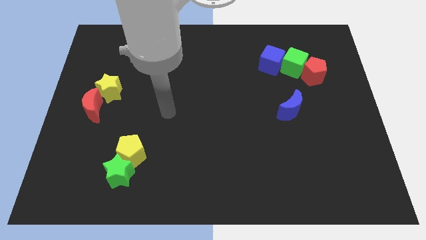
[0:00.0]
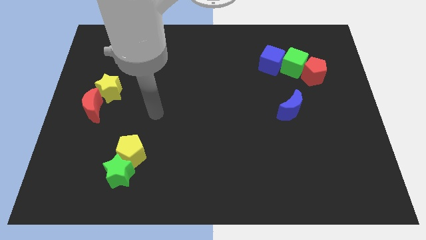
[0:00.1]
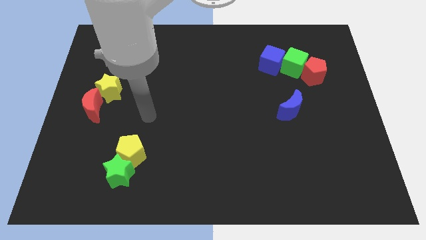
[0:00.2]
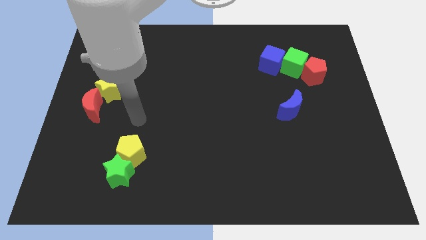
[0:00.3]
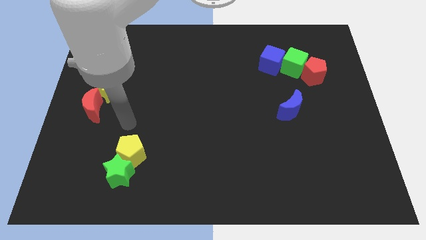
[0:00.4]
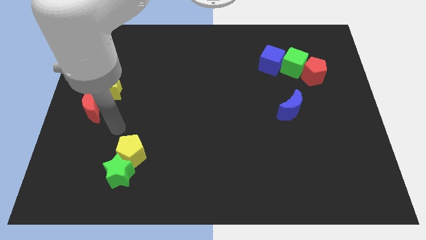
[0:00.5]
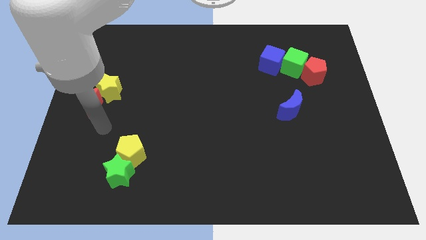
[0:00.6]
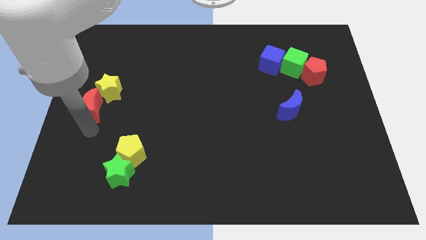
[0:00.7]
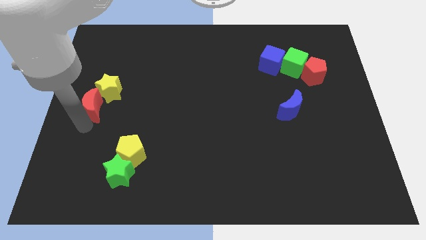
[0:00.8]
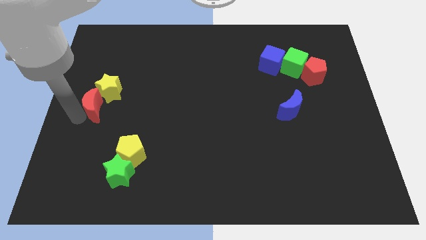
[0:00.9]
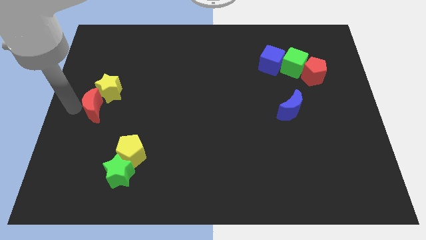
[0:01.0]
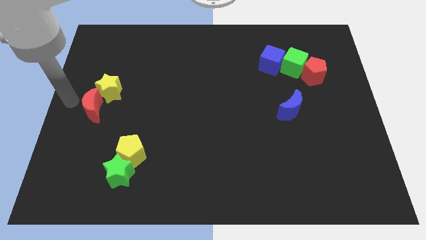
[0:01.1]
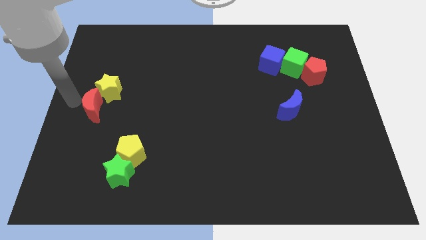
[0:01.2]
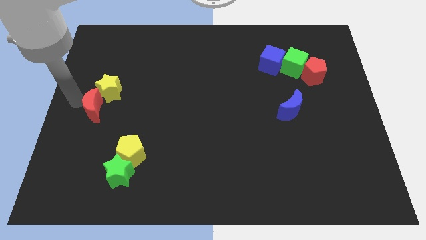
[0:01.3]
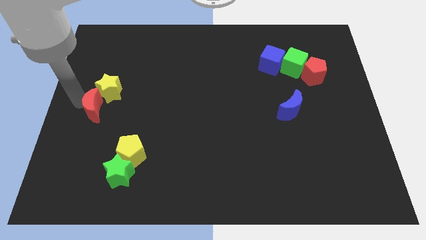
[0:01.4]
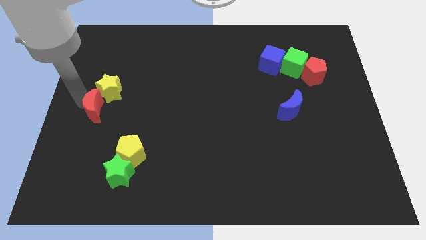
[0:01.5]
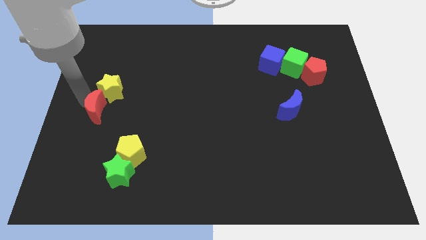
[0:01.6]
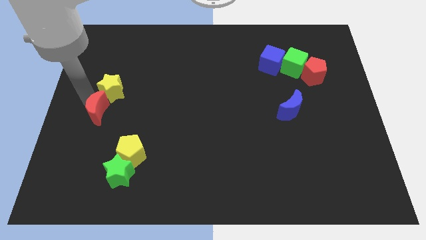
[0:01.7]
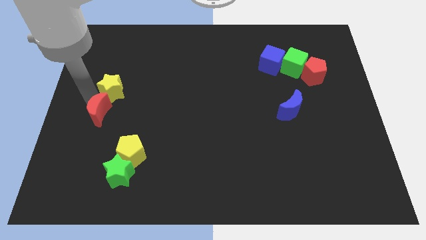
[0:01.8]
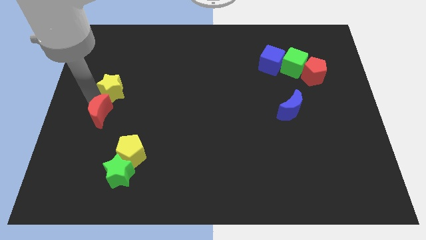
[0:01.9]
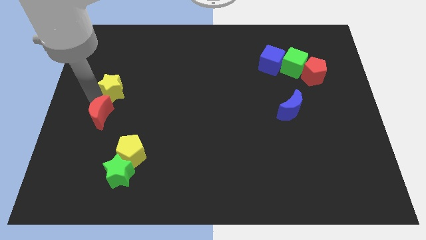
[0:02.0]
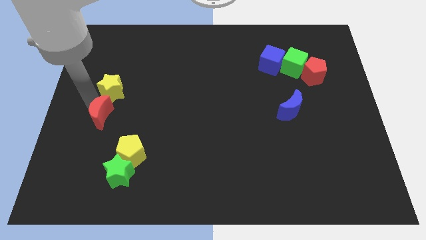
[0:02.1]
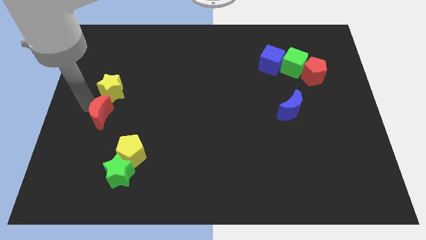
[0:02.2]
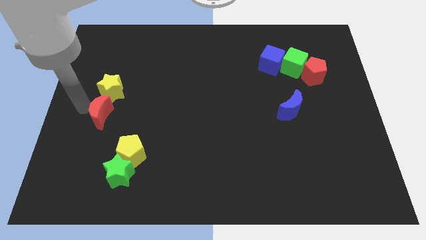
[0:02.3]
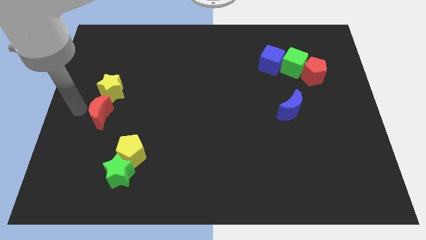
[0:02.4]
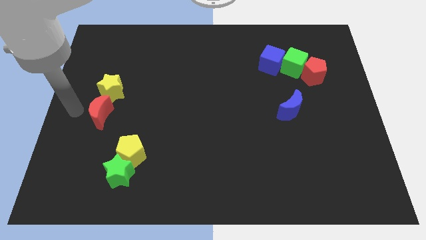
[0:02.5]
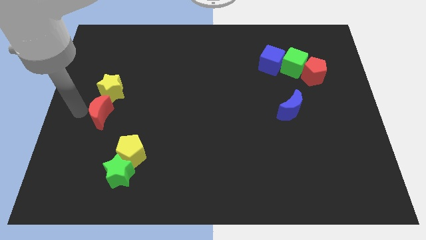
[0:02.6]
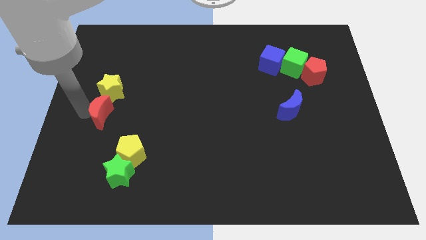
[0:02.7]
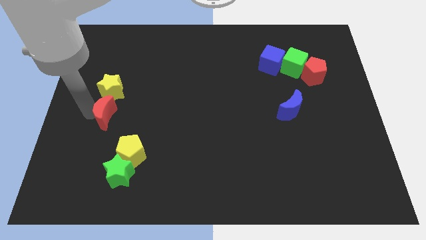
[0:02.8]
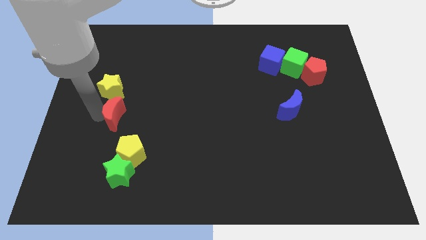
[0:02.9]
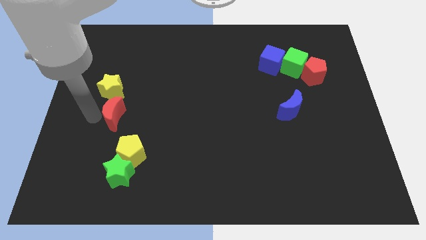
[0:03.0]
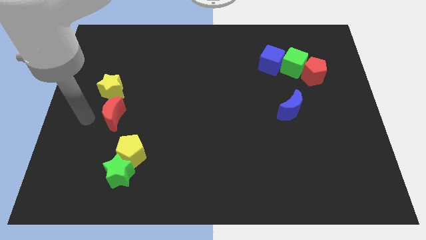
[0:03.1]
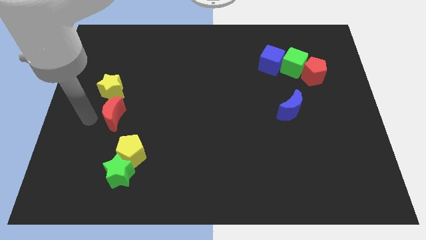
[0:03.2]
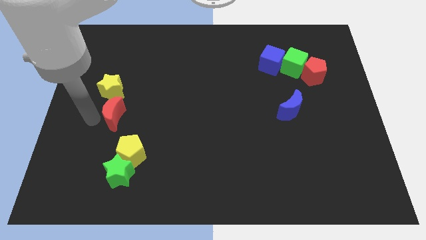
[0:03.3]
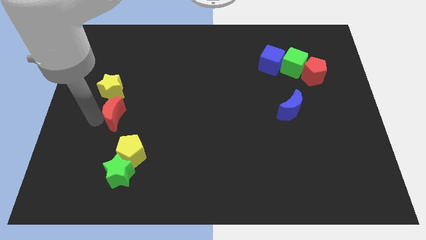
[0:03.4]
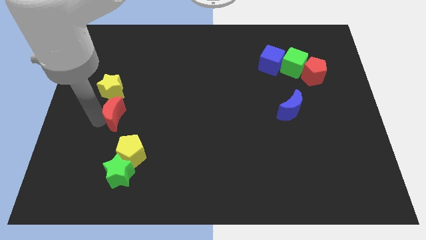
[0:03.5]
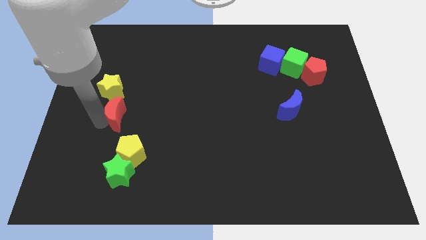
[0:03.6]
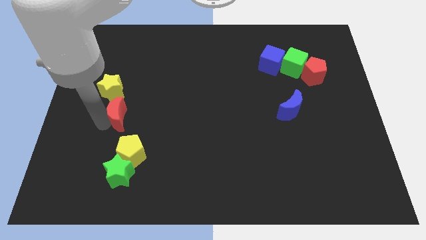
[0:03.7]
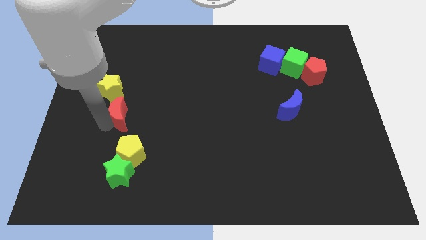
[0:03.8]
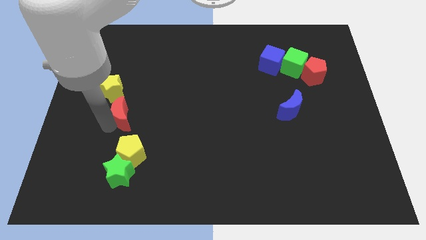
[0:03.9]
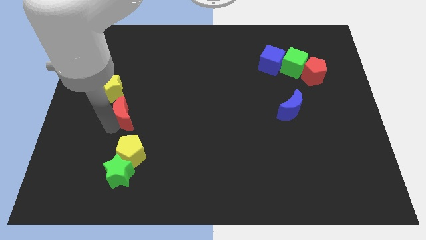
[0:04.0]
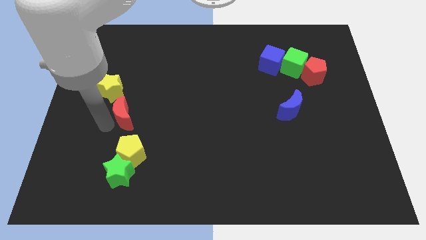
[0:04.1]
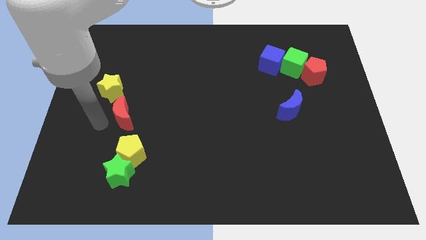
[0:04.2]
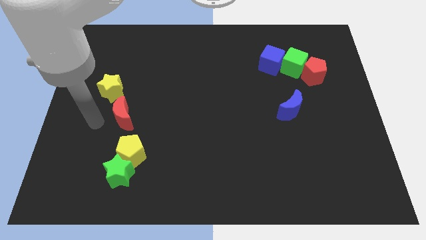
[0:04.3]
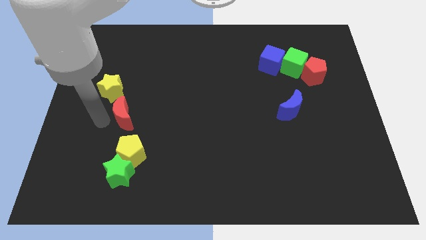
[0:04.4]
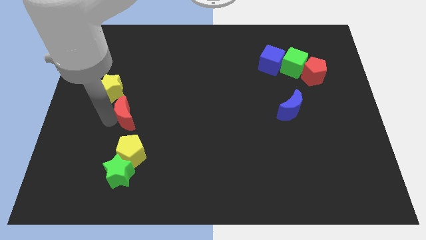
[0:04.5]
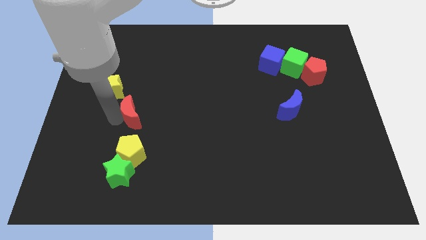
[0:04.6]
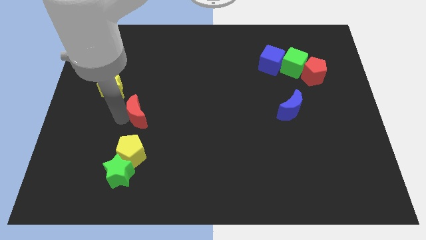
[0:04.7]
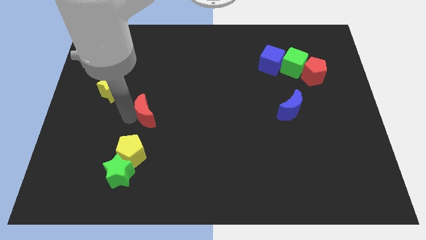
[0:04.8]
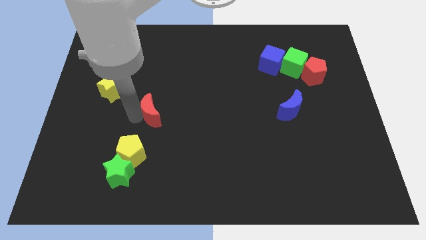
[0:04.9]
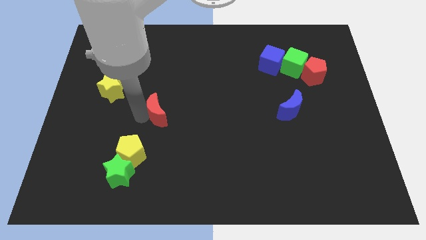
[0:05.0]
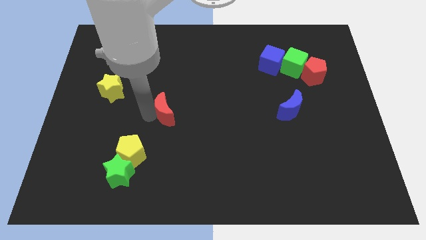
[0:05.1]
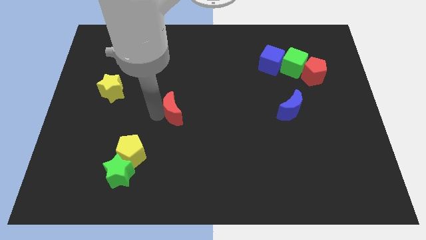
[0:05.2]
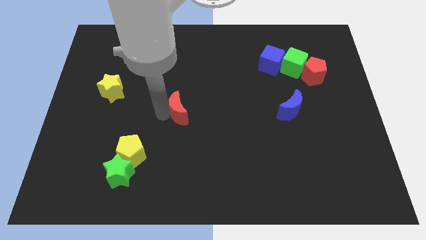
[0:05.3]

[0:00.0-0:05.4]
move the red moon right

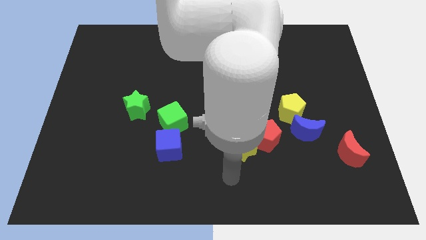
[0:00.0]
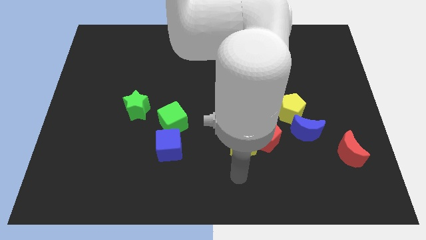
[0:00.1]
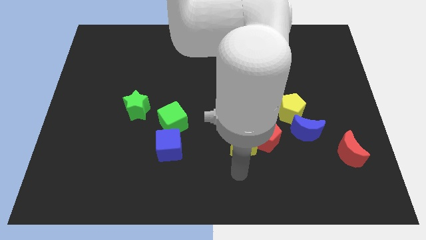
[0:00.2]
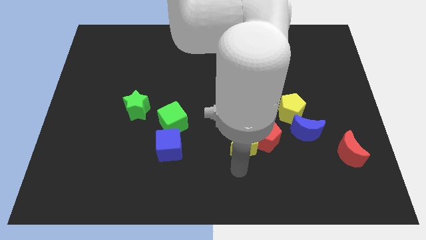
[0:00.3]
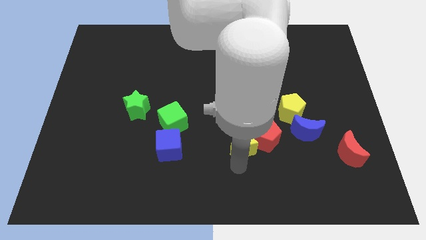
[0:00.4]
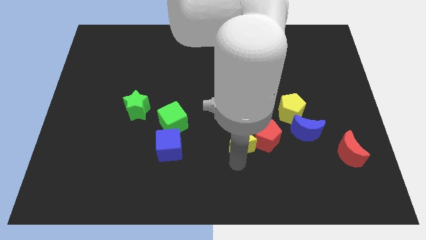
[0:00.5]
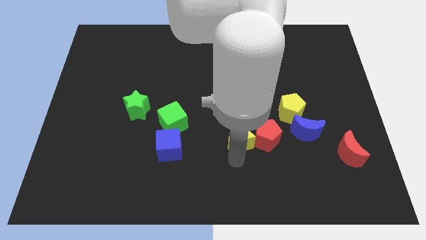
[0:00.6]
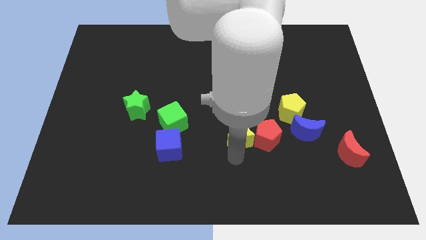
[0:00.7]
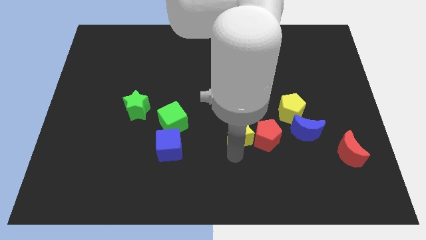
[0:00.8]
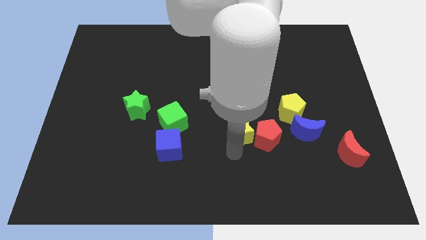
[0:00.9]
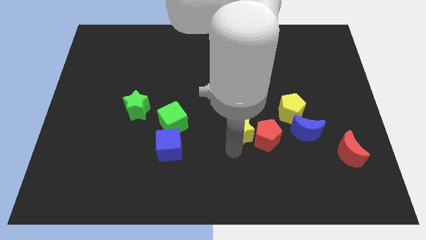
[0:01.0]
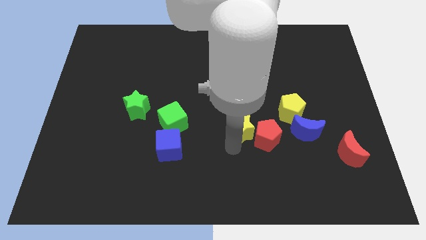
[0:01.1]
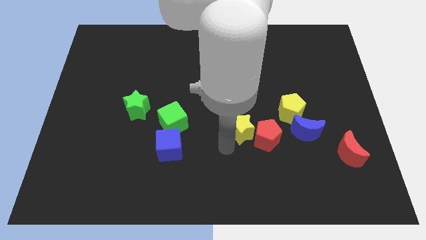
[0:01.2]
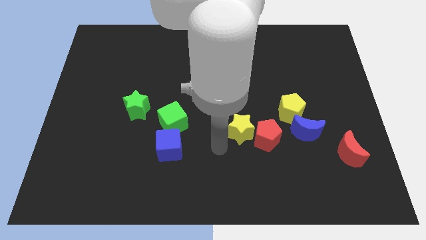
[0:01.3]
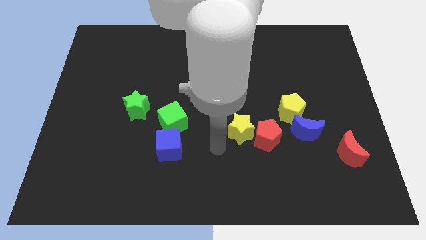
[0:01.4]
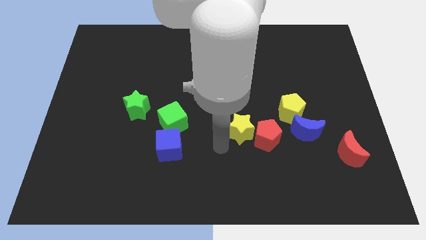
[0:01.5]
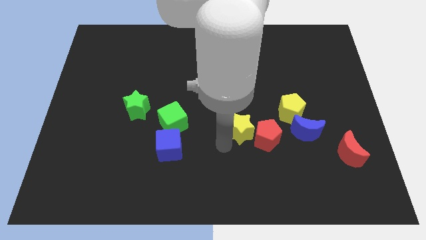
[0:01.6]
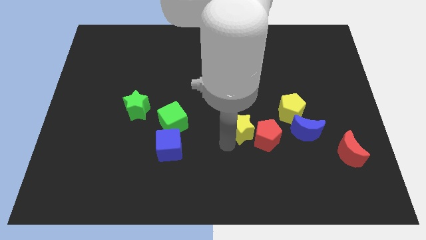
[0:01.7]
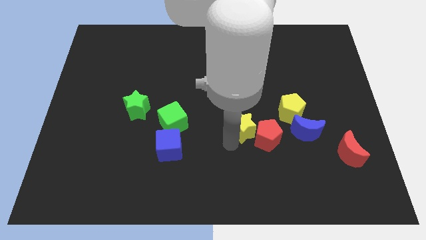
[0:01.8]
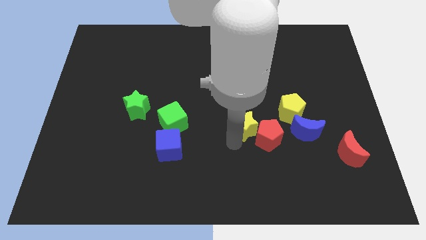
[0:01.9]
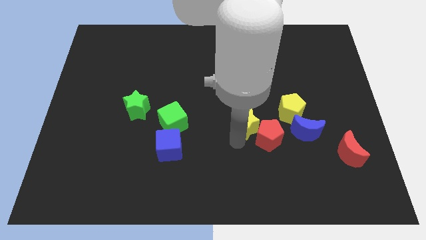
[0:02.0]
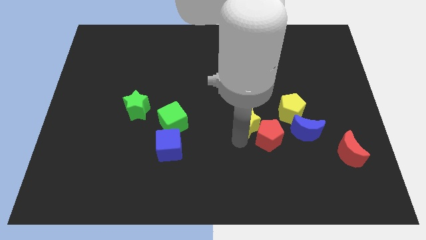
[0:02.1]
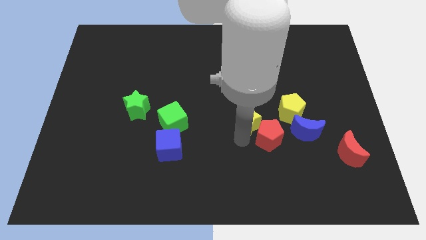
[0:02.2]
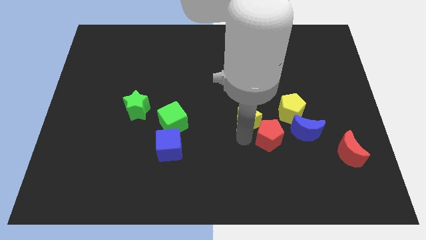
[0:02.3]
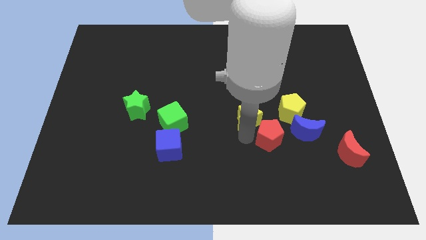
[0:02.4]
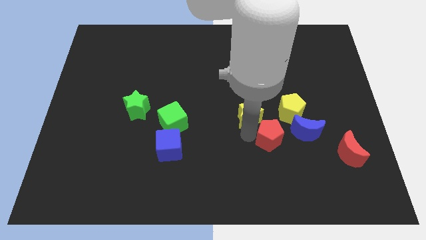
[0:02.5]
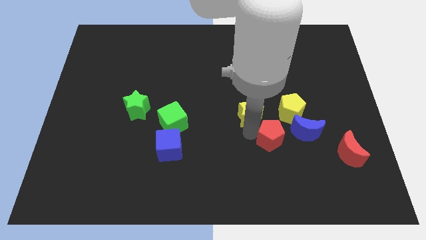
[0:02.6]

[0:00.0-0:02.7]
slide the yellow star diagonally upwards and right somewhat
